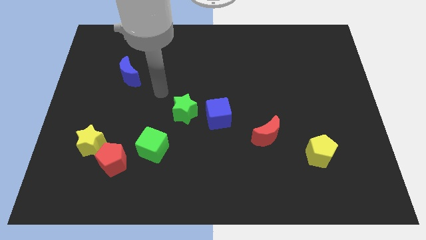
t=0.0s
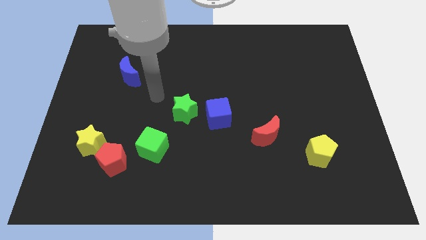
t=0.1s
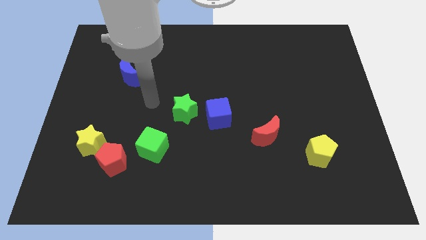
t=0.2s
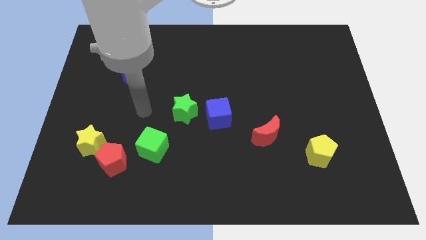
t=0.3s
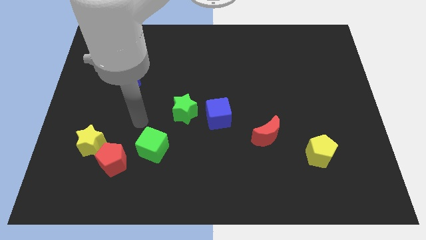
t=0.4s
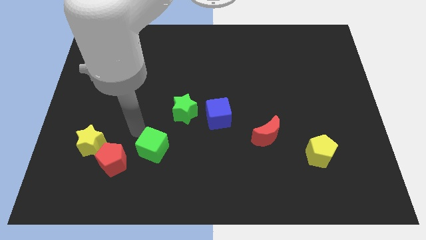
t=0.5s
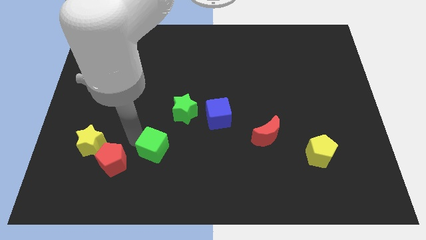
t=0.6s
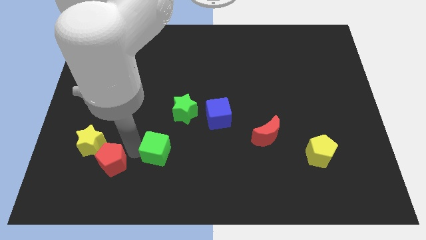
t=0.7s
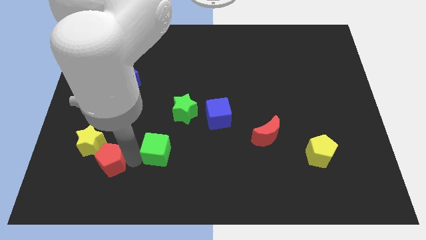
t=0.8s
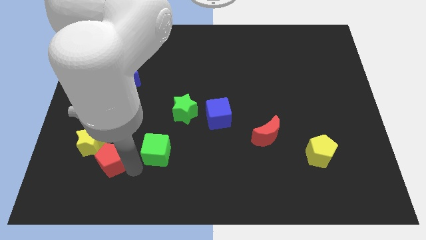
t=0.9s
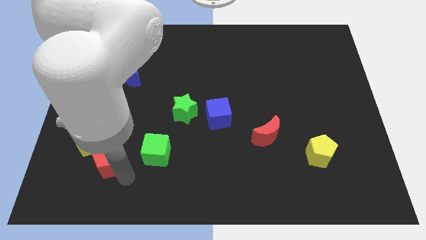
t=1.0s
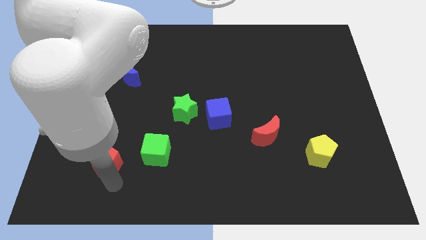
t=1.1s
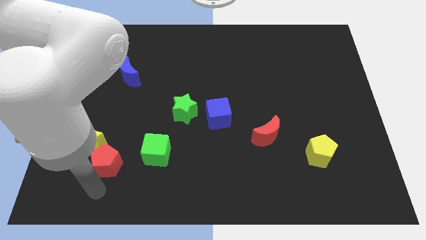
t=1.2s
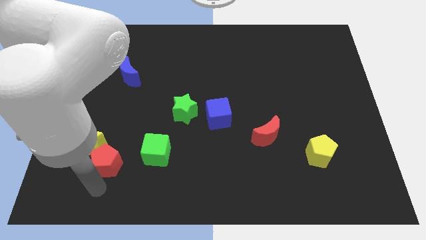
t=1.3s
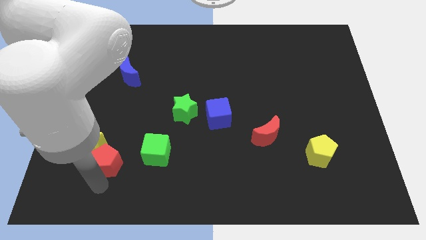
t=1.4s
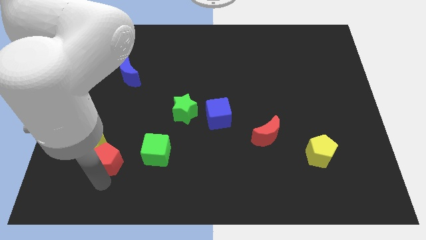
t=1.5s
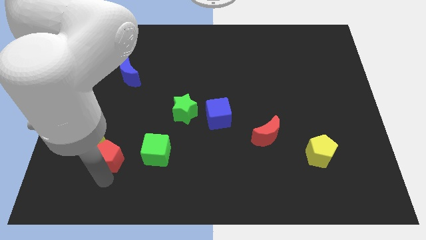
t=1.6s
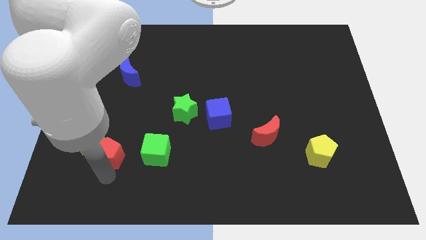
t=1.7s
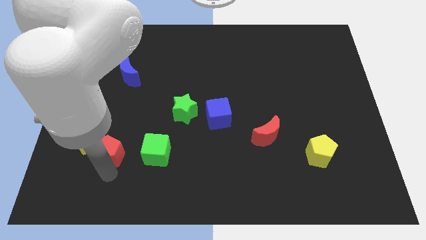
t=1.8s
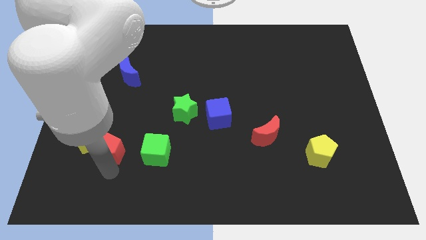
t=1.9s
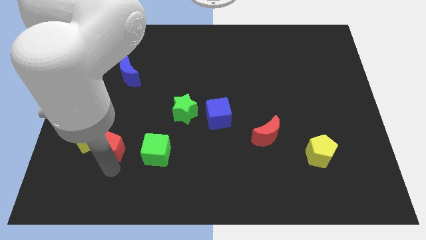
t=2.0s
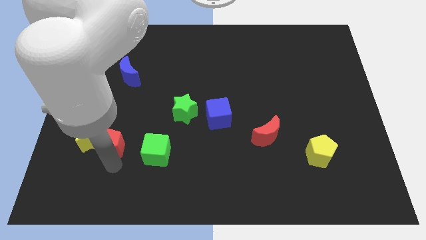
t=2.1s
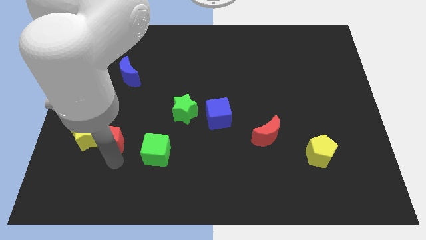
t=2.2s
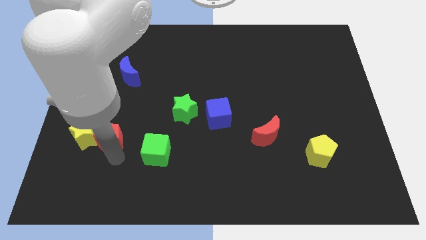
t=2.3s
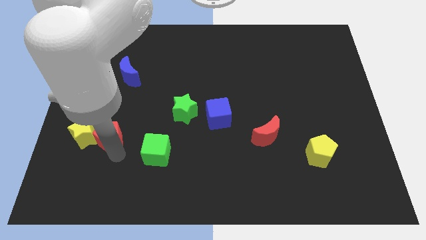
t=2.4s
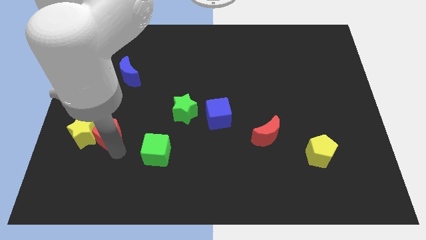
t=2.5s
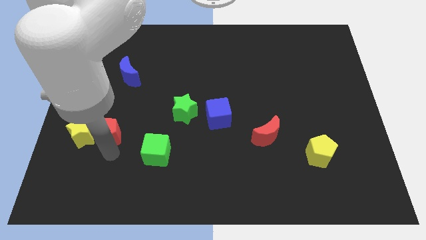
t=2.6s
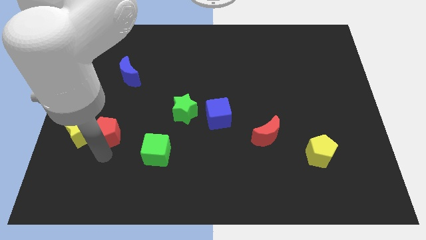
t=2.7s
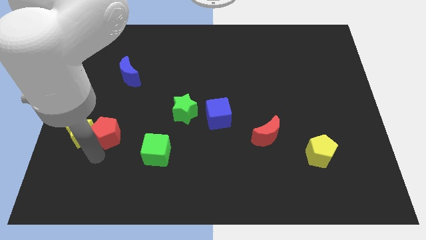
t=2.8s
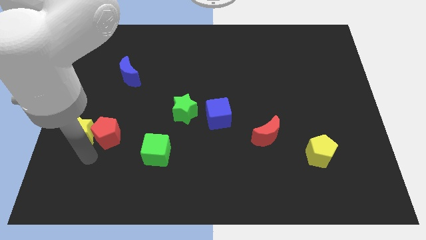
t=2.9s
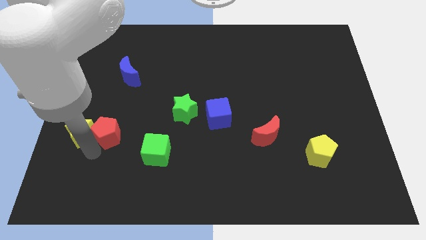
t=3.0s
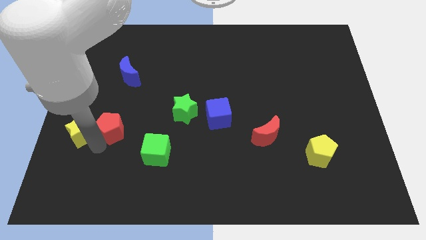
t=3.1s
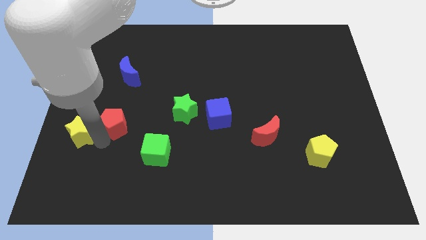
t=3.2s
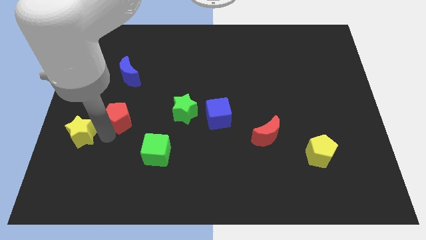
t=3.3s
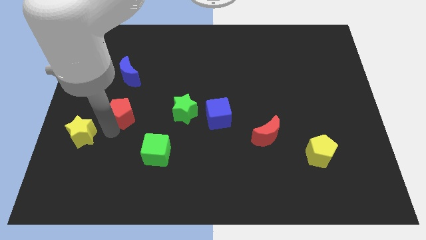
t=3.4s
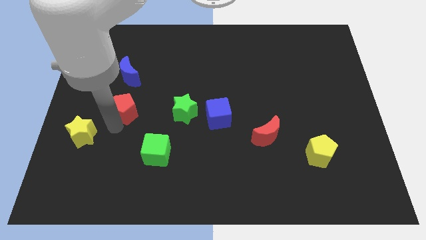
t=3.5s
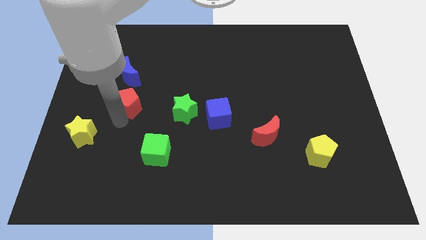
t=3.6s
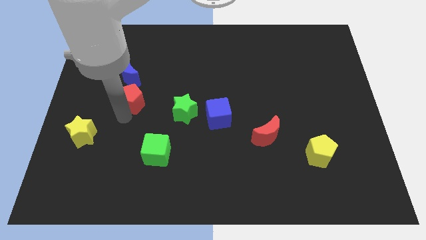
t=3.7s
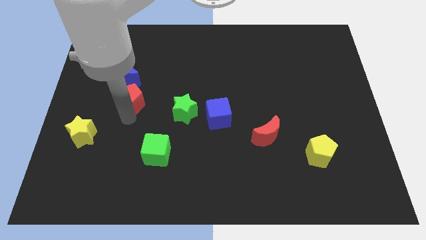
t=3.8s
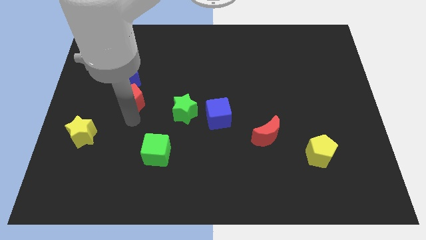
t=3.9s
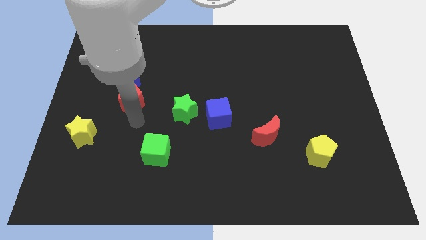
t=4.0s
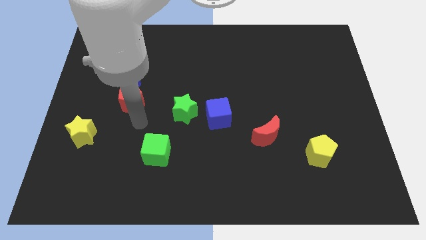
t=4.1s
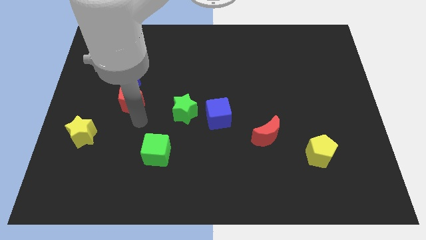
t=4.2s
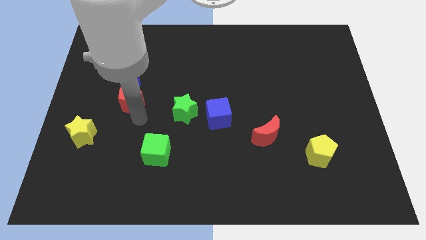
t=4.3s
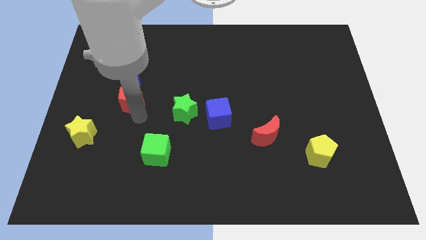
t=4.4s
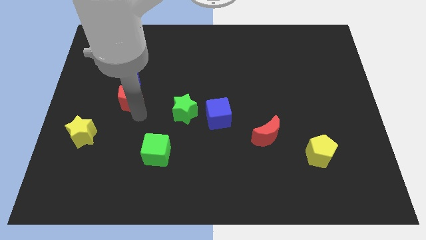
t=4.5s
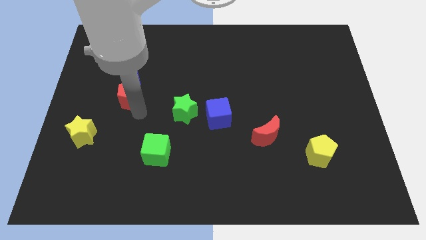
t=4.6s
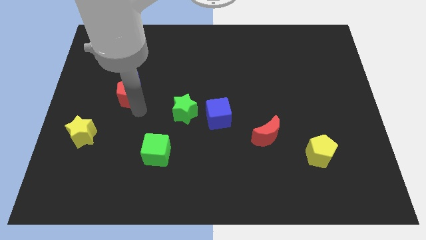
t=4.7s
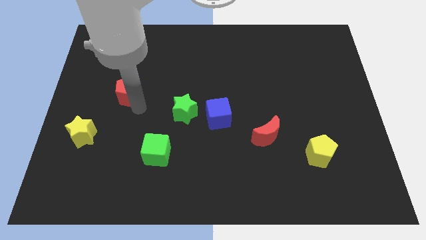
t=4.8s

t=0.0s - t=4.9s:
push the red pentagon next to the blue moon
